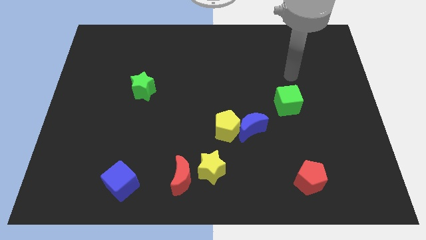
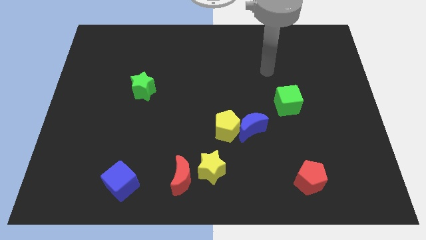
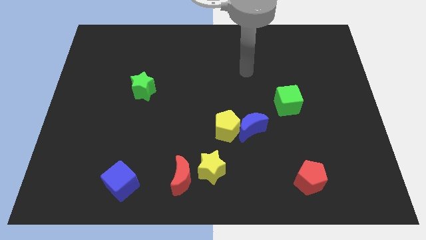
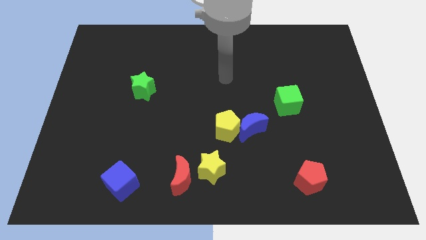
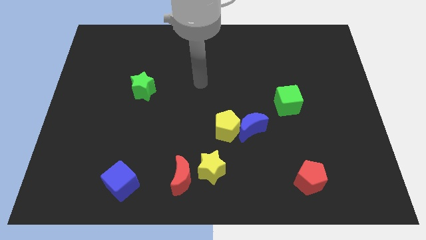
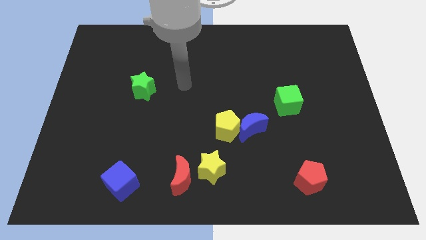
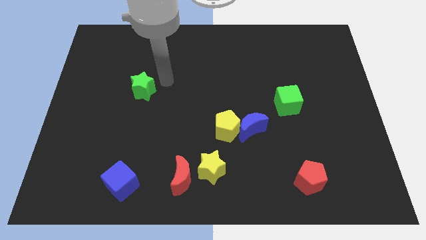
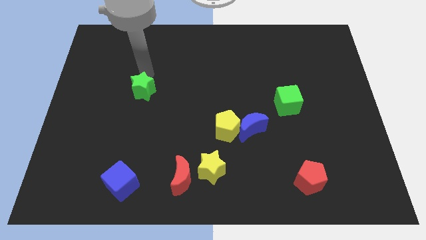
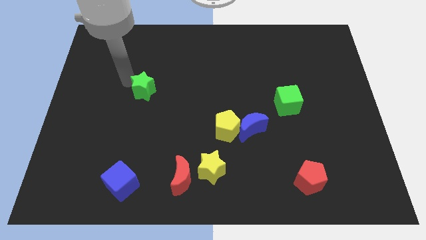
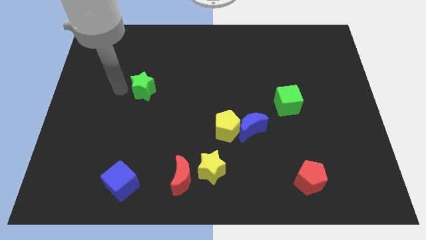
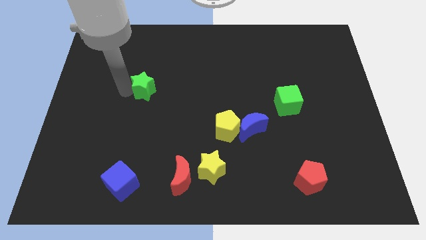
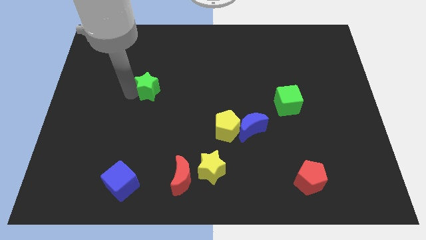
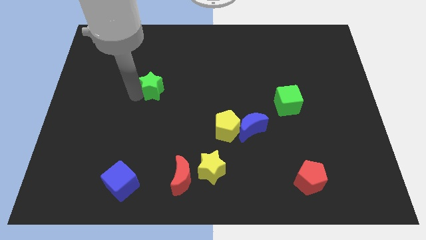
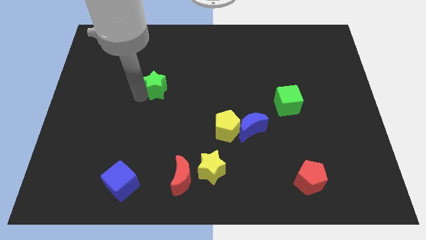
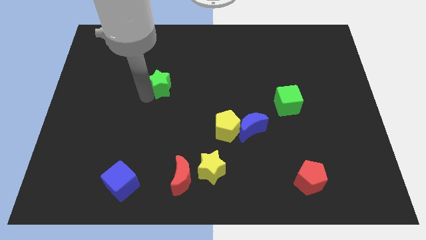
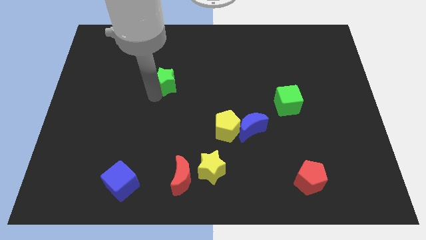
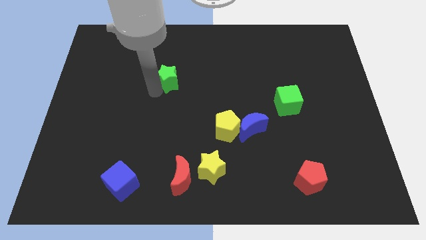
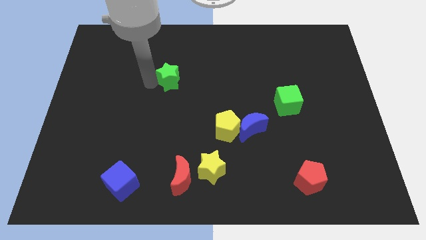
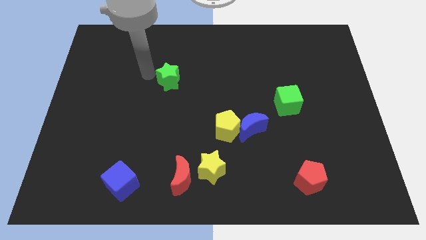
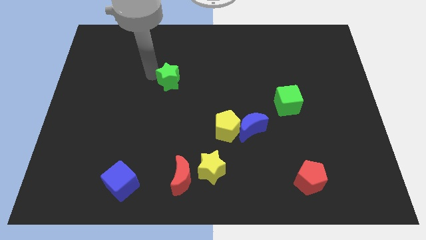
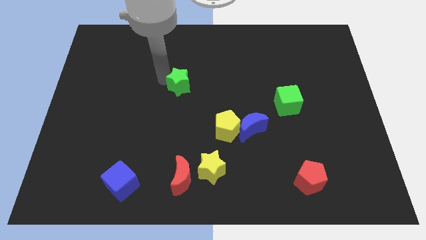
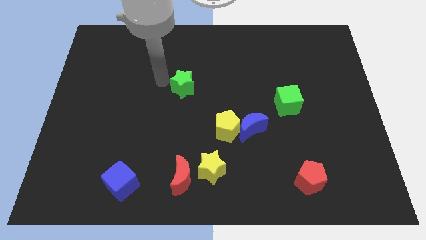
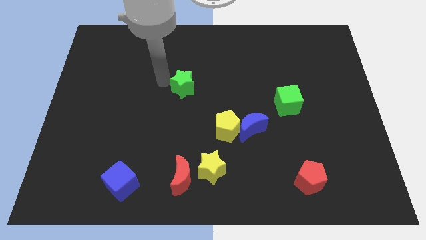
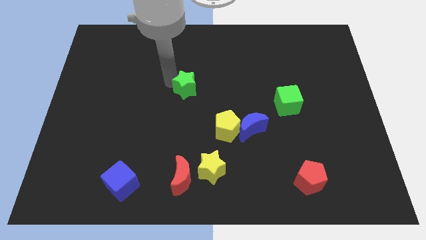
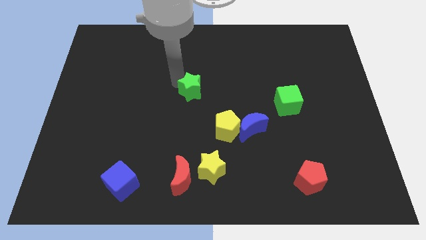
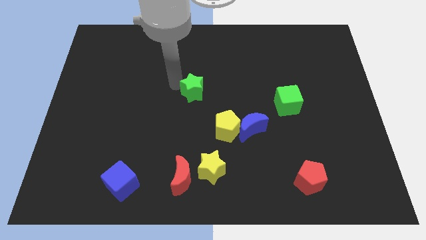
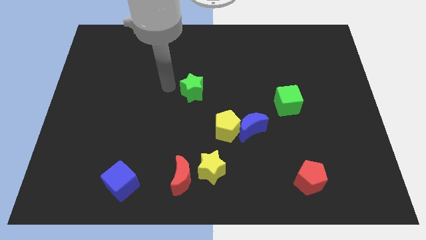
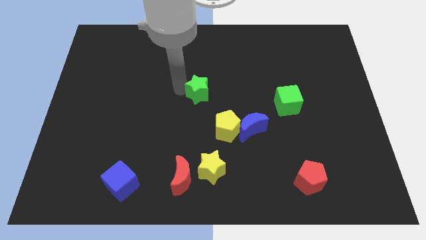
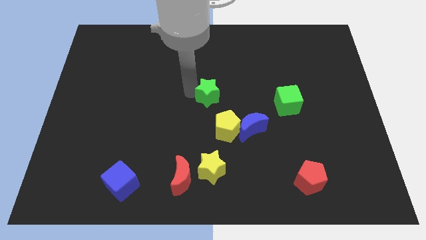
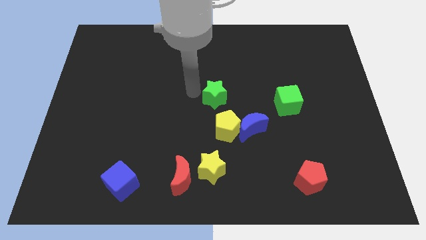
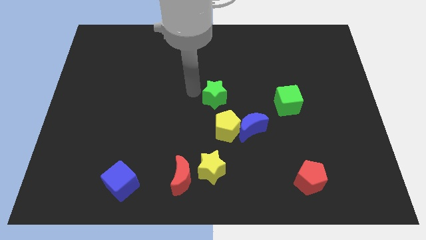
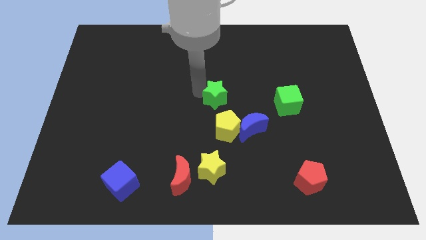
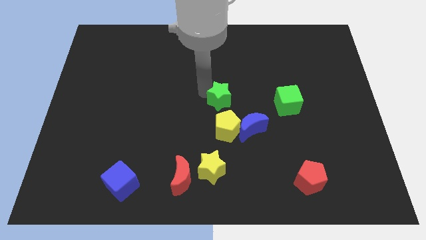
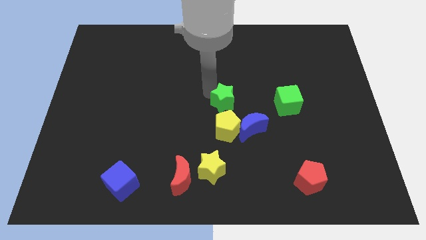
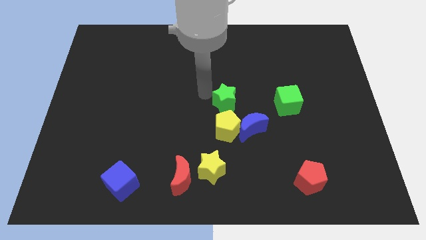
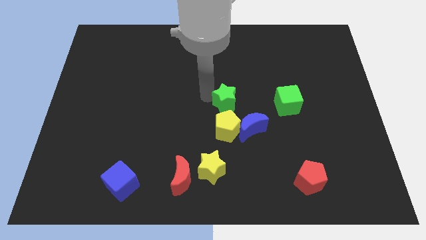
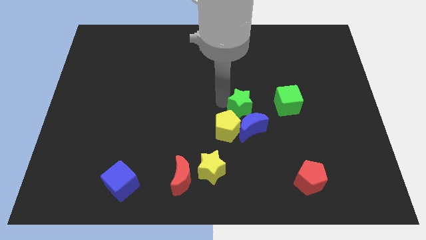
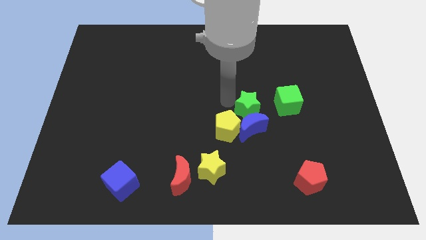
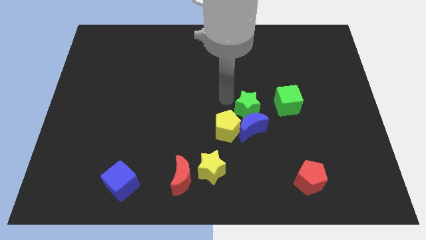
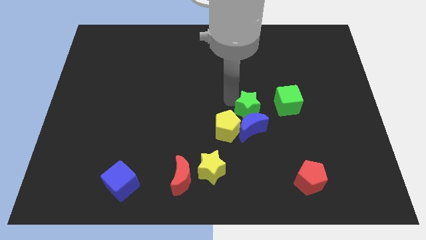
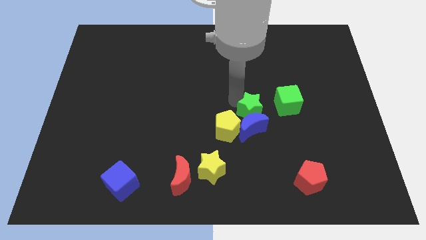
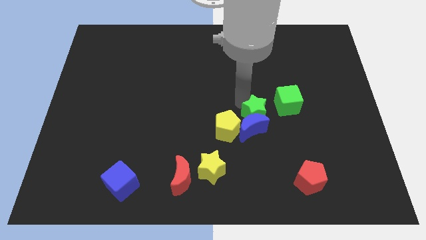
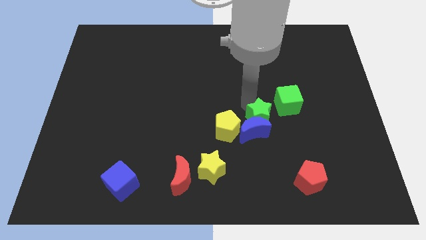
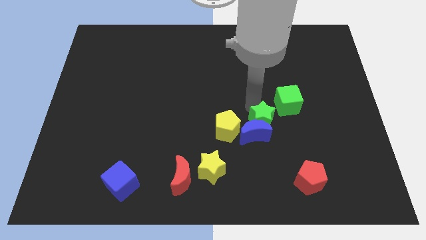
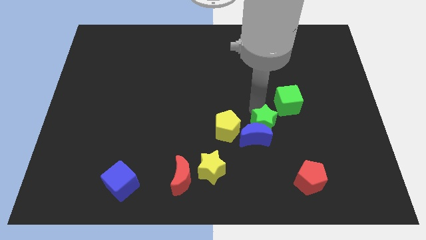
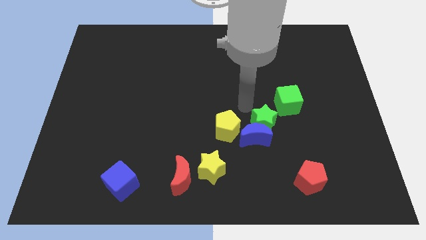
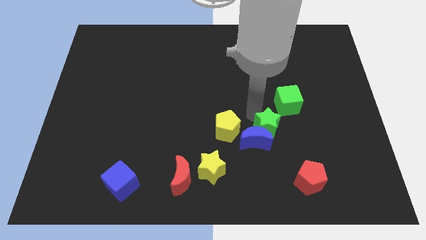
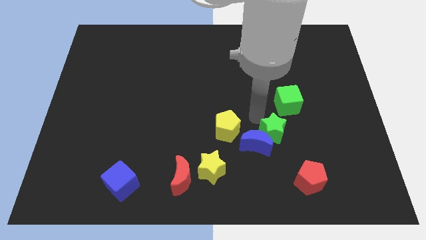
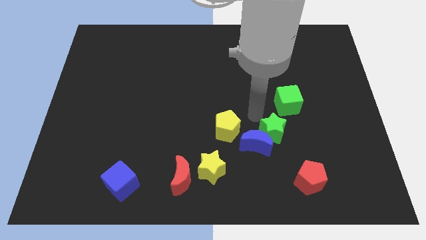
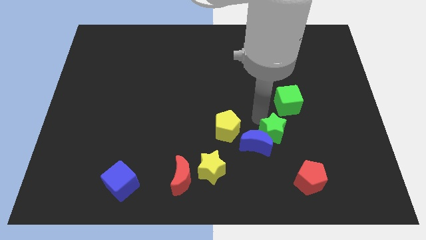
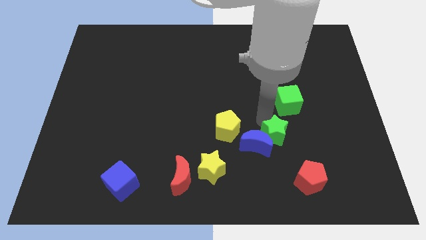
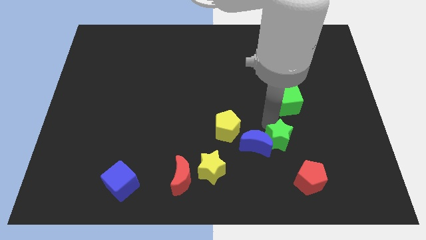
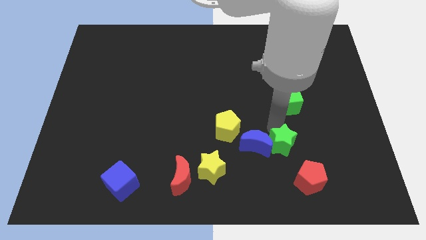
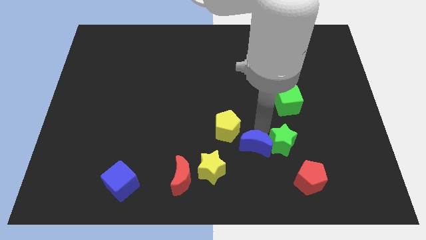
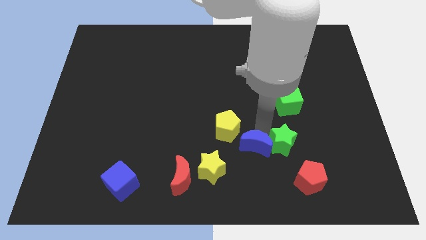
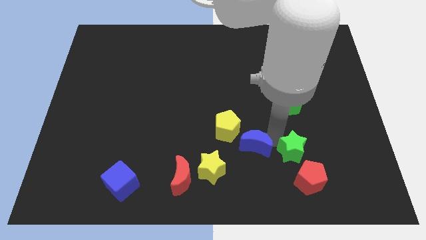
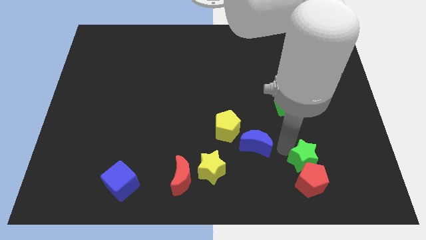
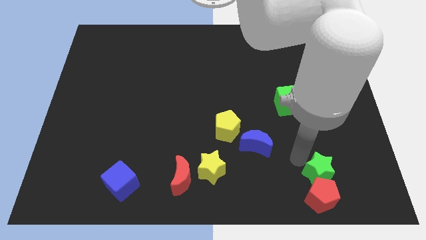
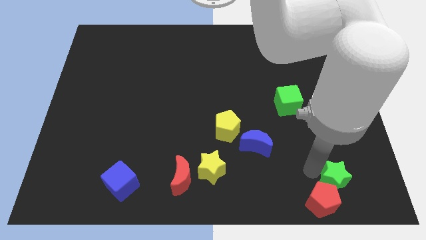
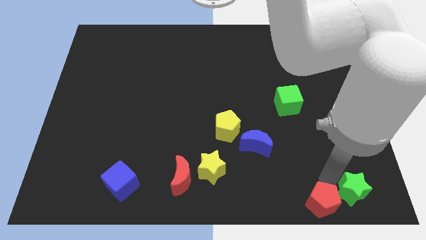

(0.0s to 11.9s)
put the green star to the bottom right of the board
